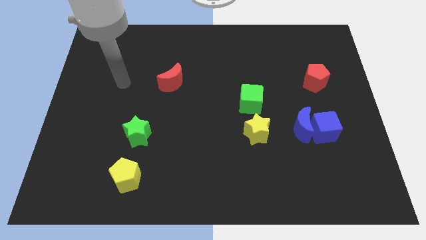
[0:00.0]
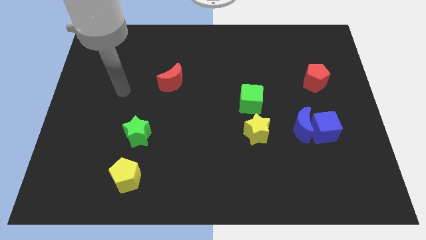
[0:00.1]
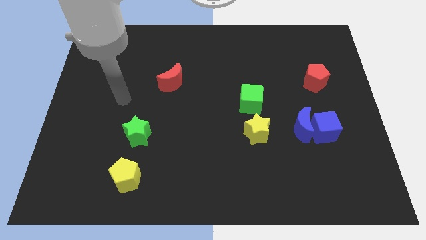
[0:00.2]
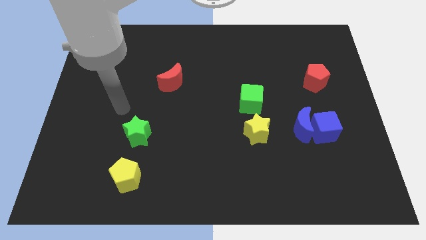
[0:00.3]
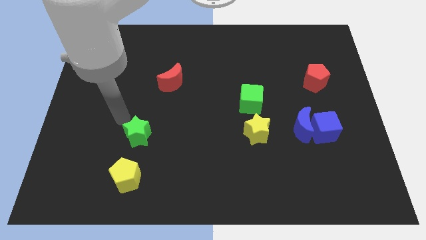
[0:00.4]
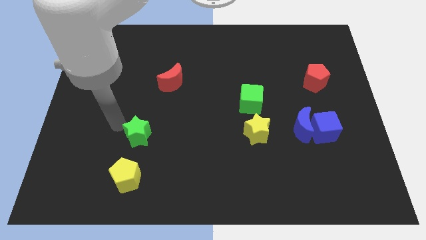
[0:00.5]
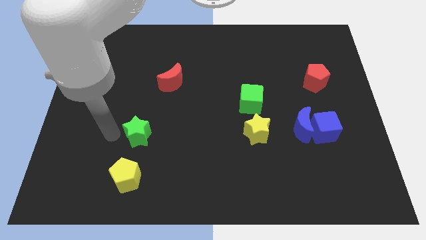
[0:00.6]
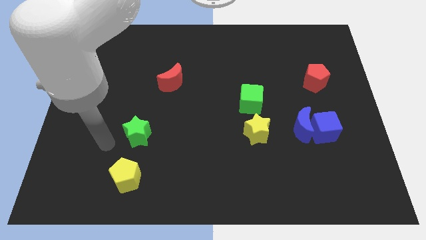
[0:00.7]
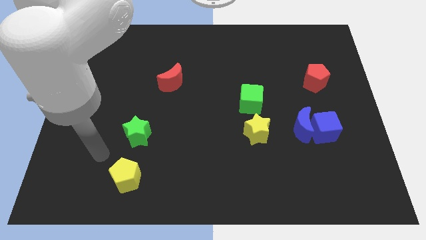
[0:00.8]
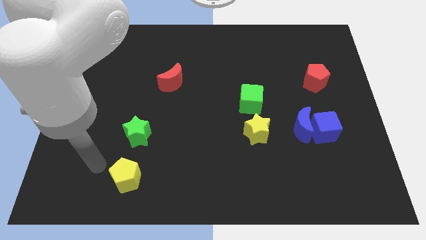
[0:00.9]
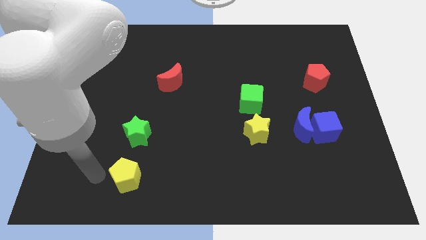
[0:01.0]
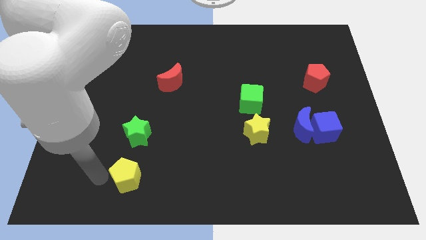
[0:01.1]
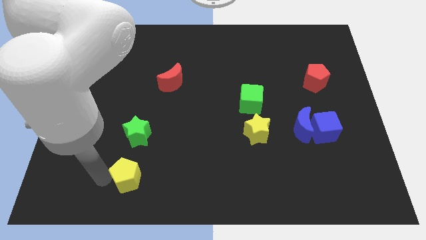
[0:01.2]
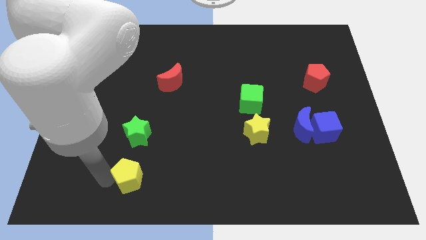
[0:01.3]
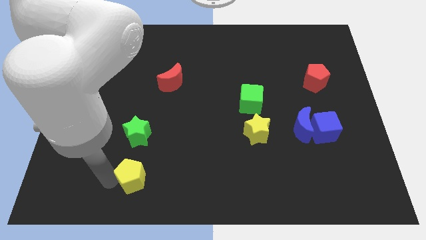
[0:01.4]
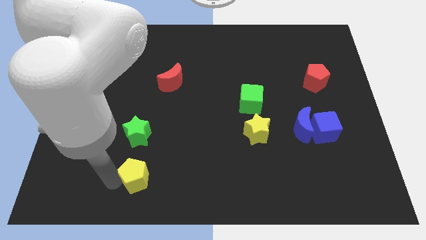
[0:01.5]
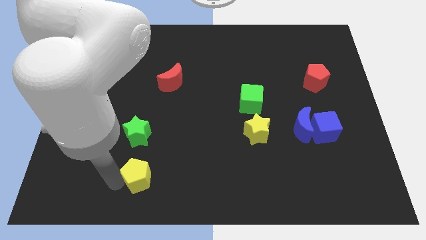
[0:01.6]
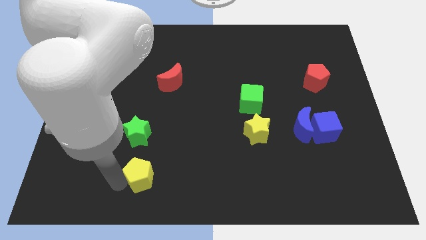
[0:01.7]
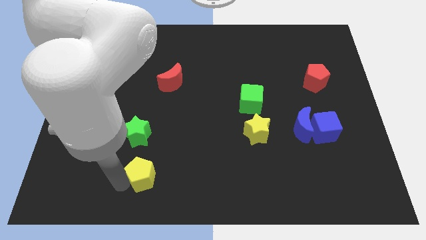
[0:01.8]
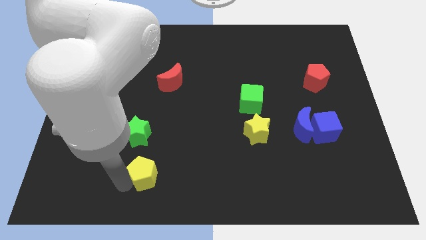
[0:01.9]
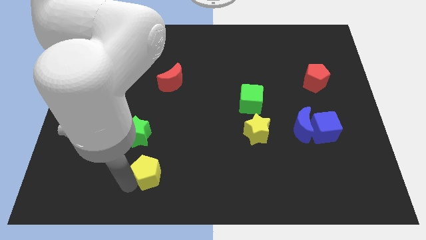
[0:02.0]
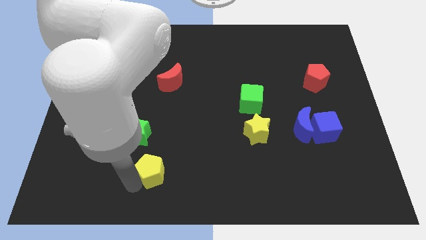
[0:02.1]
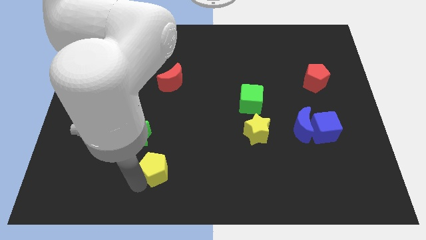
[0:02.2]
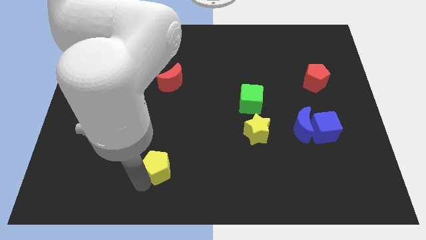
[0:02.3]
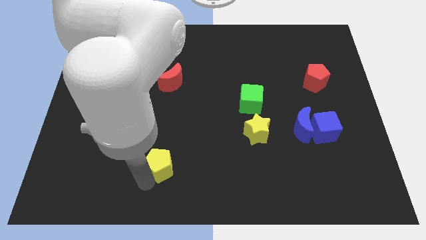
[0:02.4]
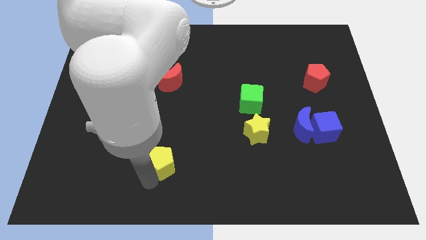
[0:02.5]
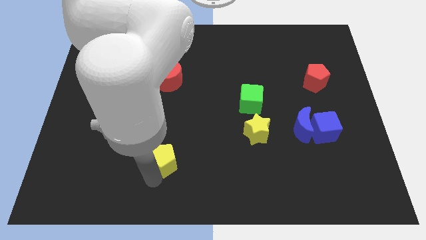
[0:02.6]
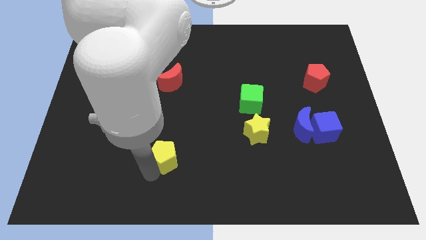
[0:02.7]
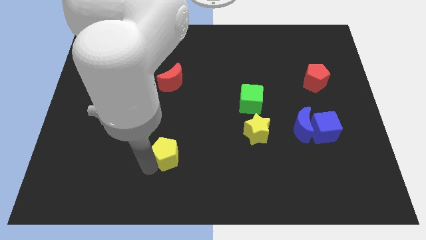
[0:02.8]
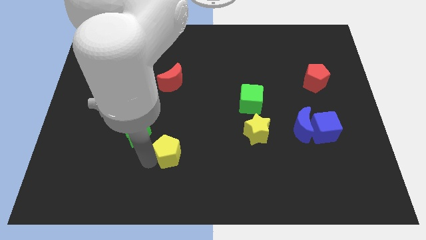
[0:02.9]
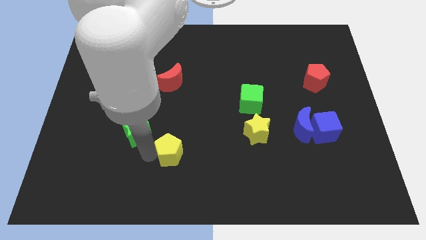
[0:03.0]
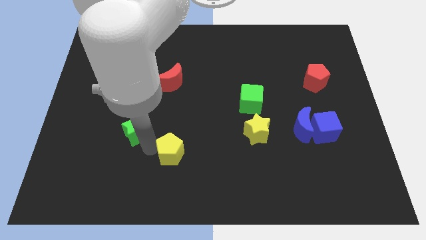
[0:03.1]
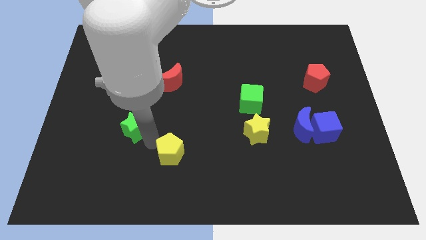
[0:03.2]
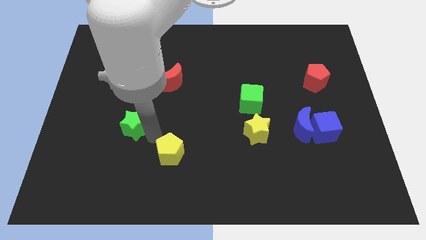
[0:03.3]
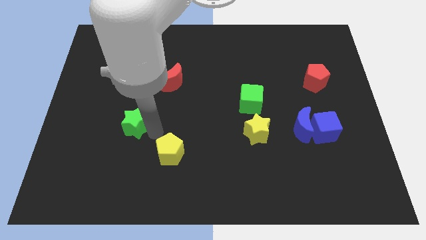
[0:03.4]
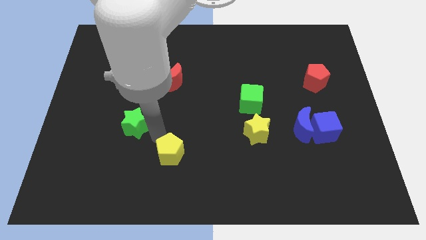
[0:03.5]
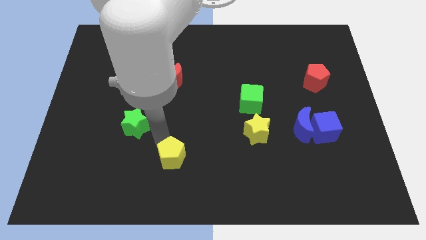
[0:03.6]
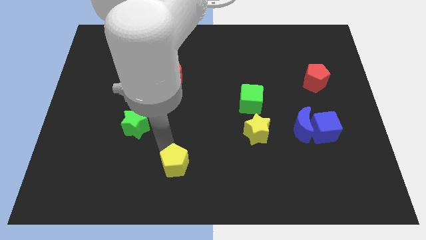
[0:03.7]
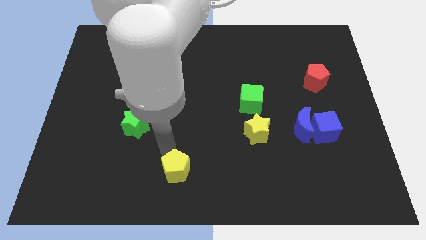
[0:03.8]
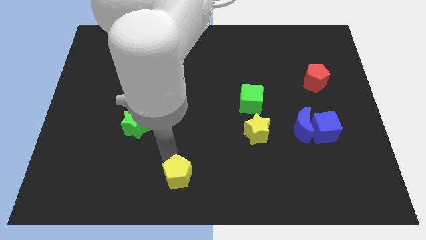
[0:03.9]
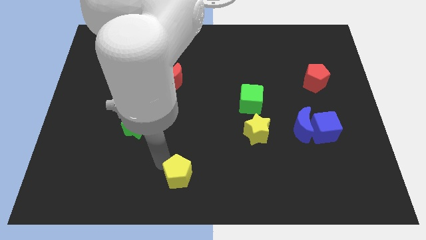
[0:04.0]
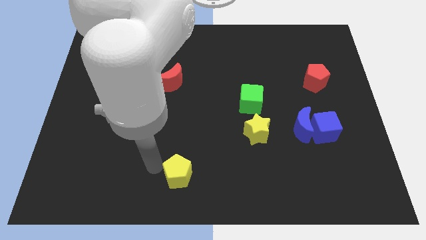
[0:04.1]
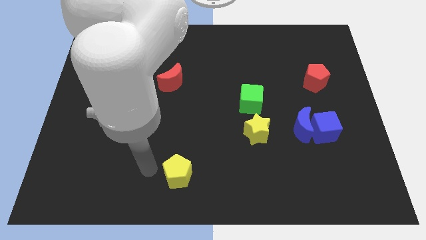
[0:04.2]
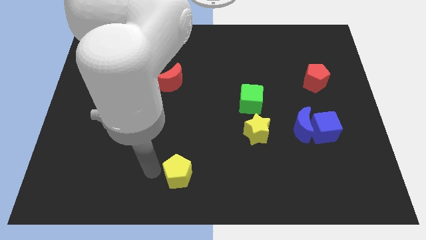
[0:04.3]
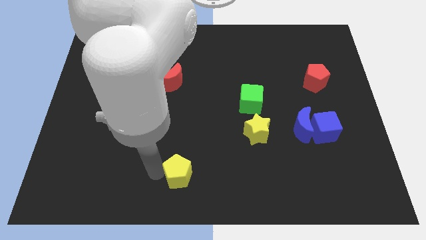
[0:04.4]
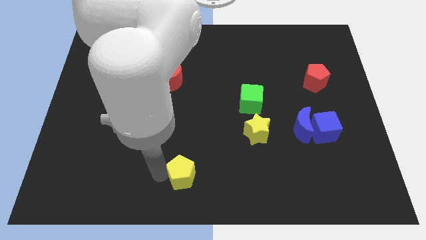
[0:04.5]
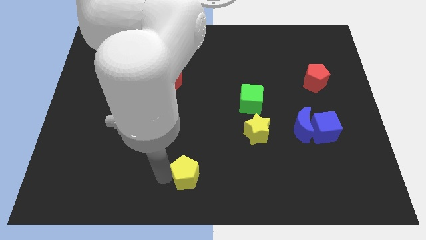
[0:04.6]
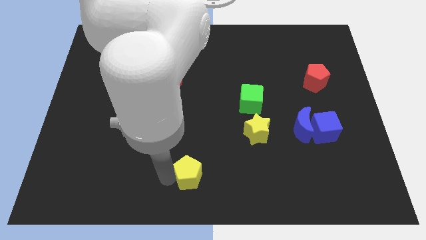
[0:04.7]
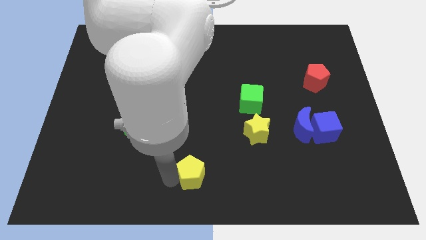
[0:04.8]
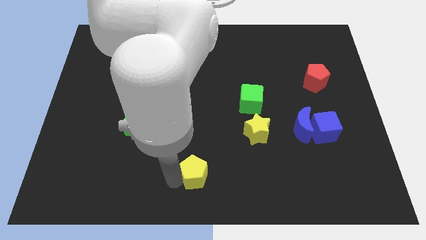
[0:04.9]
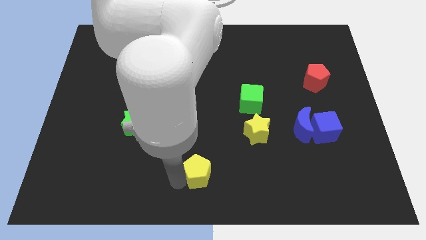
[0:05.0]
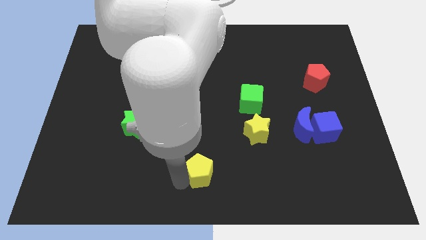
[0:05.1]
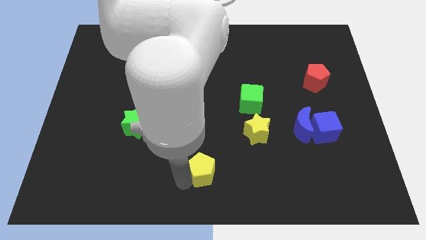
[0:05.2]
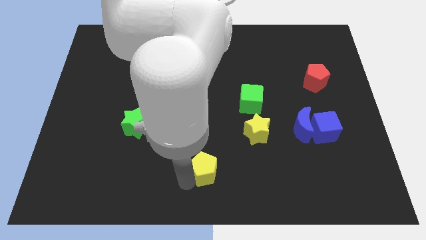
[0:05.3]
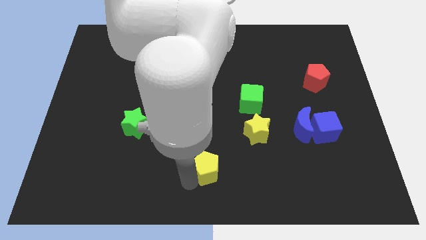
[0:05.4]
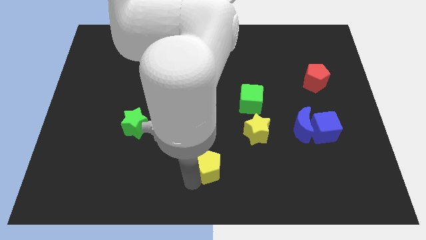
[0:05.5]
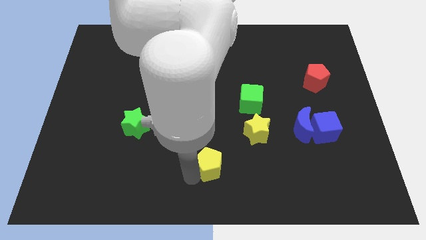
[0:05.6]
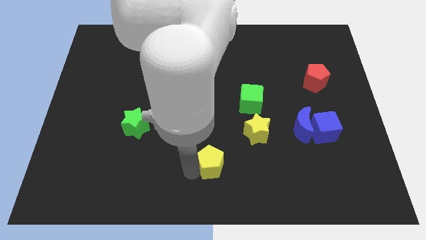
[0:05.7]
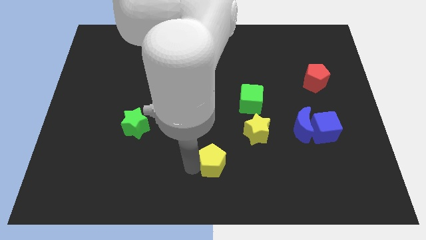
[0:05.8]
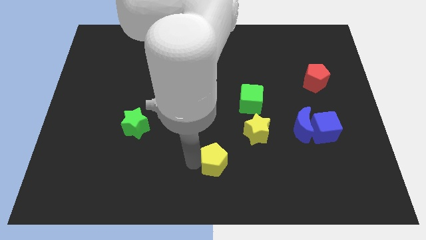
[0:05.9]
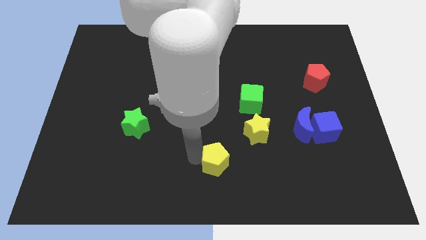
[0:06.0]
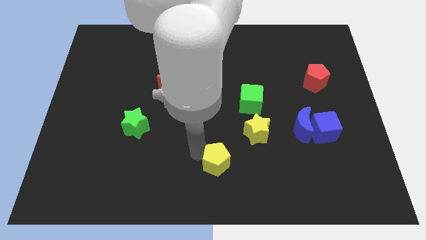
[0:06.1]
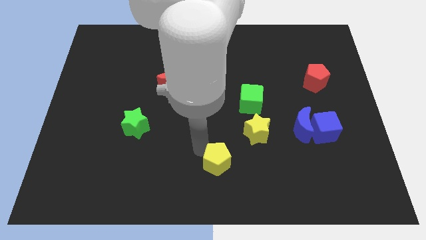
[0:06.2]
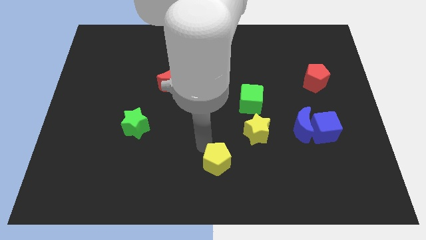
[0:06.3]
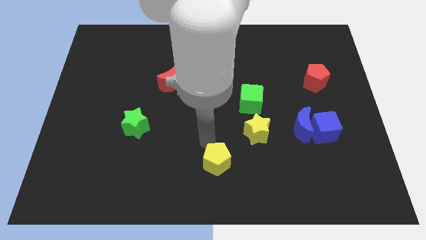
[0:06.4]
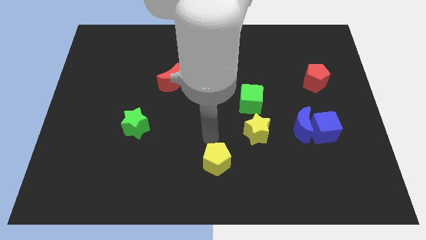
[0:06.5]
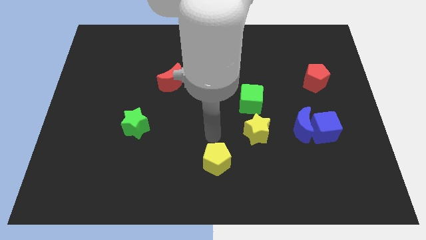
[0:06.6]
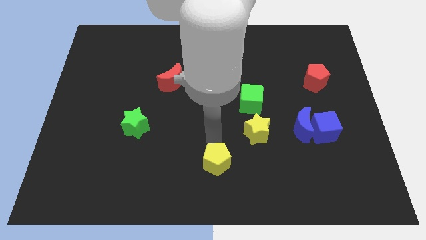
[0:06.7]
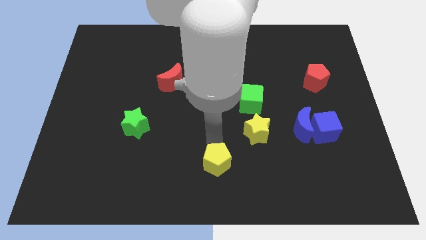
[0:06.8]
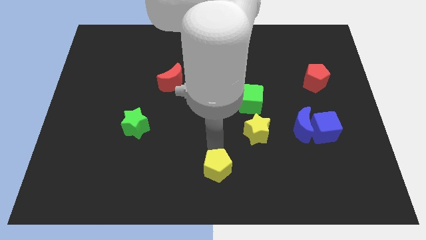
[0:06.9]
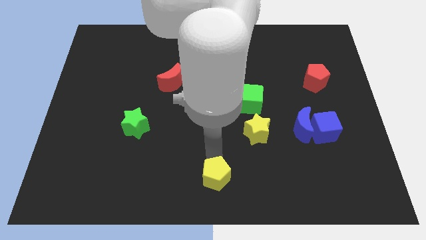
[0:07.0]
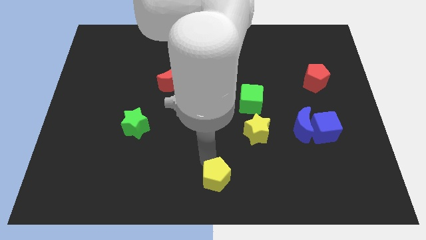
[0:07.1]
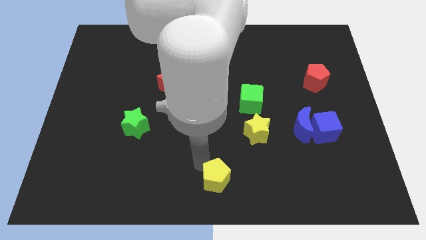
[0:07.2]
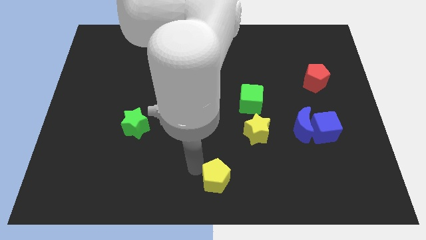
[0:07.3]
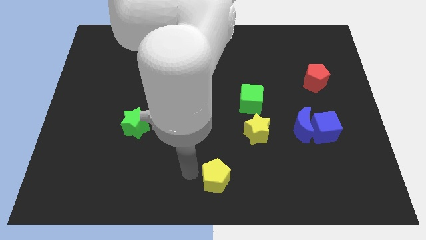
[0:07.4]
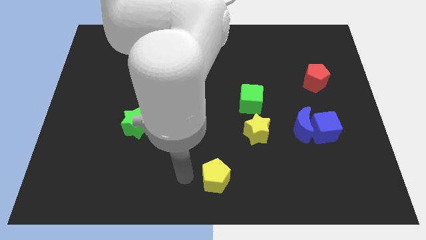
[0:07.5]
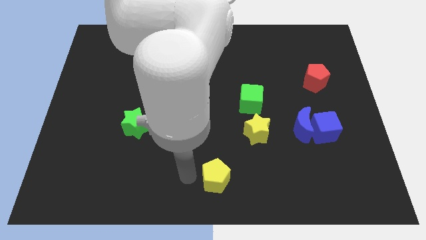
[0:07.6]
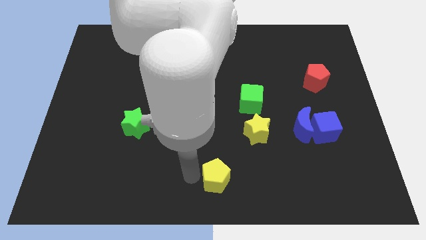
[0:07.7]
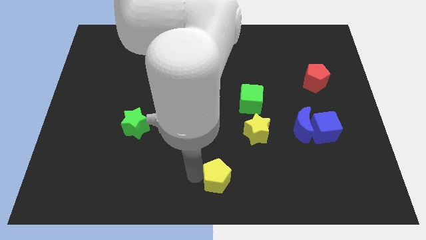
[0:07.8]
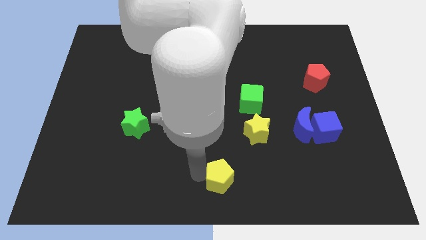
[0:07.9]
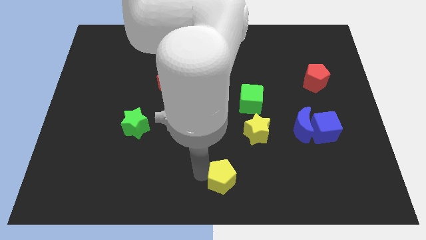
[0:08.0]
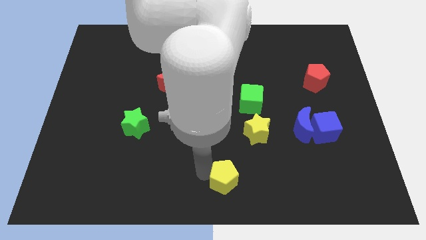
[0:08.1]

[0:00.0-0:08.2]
move the yellow pentagon to the right

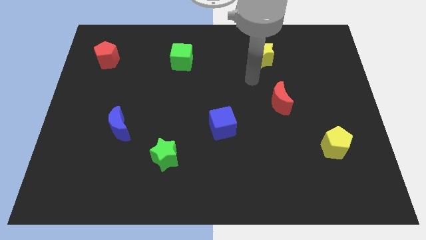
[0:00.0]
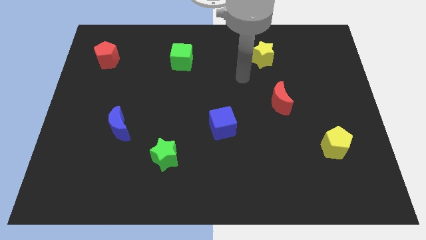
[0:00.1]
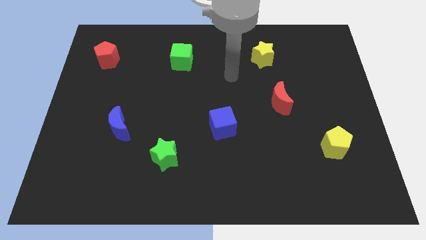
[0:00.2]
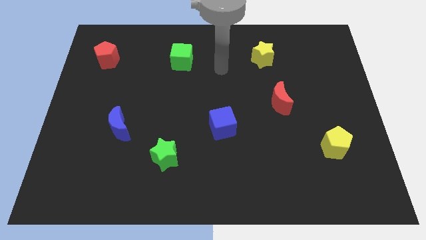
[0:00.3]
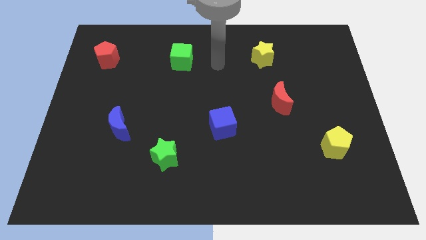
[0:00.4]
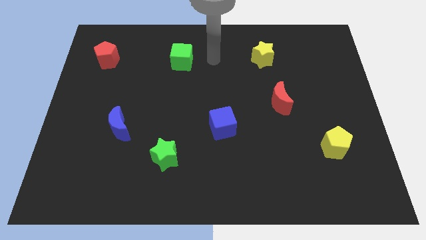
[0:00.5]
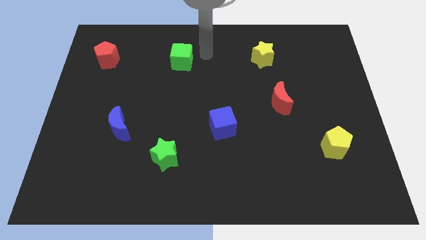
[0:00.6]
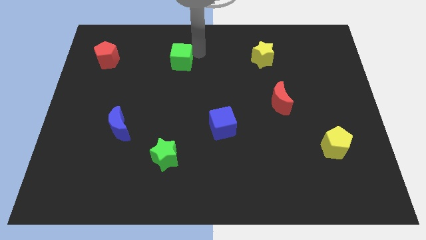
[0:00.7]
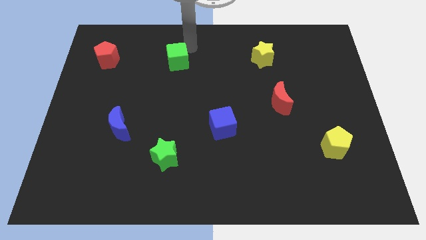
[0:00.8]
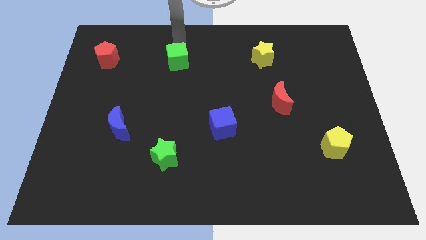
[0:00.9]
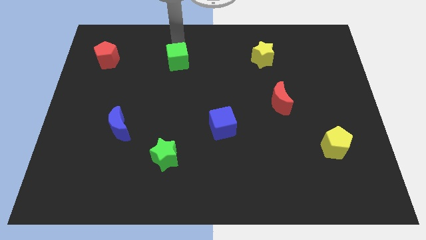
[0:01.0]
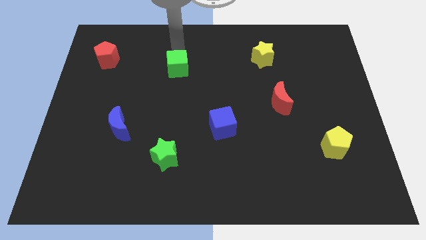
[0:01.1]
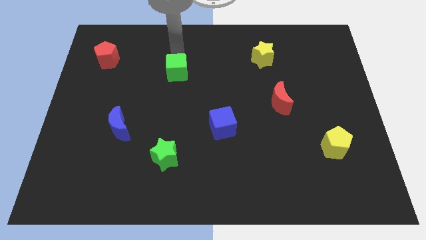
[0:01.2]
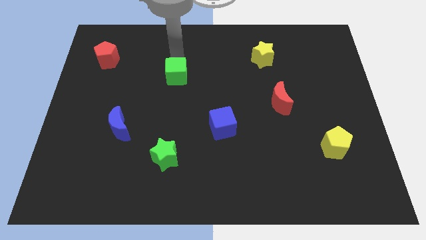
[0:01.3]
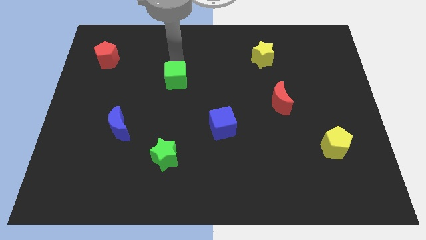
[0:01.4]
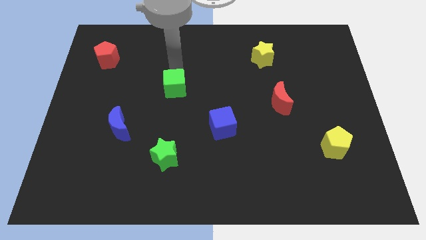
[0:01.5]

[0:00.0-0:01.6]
slide the green cube somewhat down
